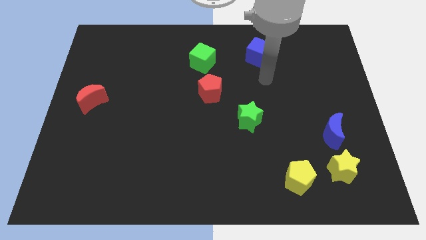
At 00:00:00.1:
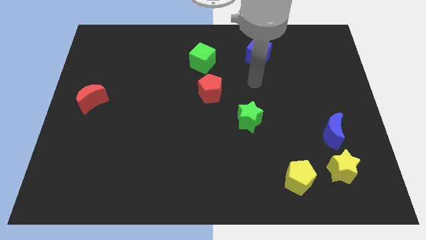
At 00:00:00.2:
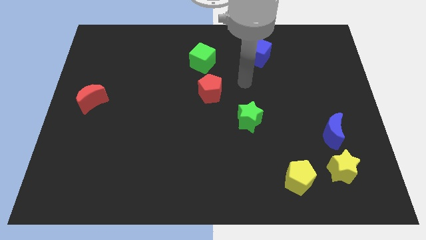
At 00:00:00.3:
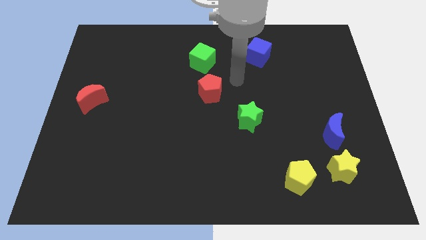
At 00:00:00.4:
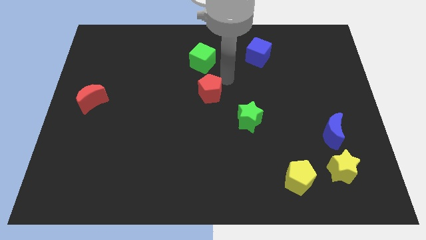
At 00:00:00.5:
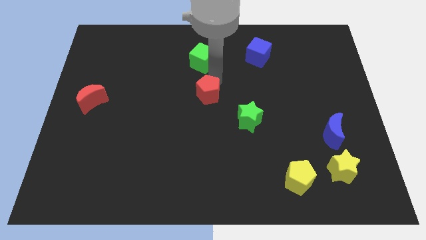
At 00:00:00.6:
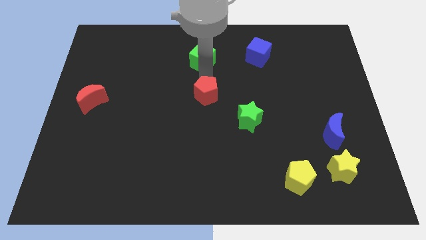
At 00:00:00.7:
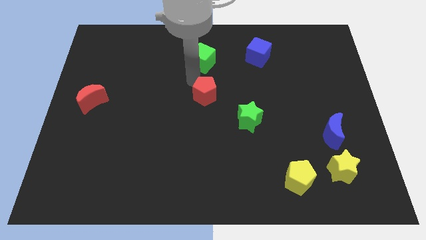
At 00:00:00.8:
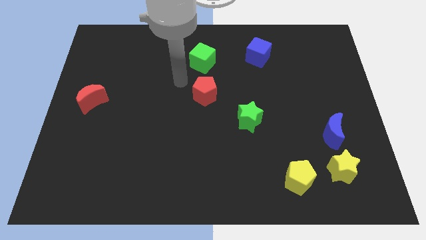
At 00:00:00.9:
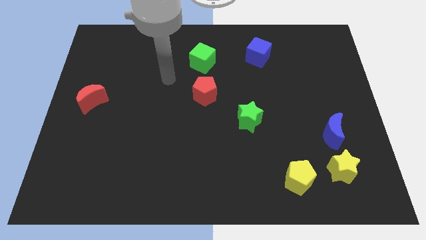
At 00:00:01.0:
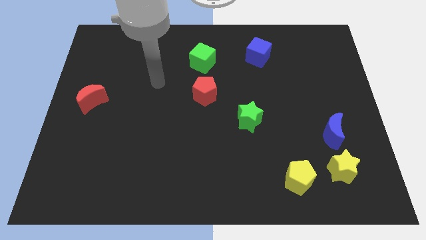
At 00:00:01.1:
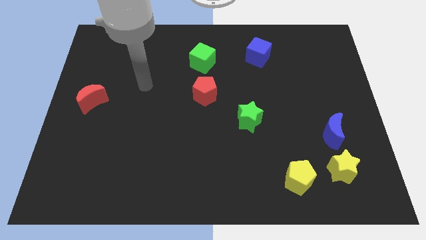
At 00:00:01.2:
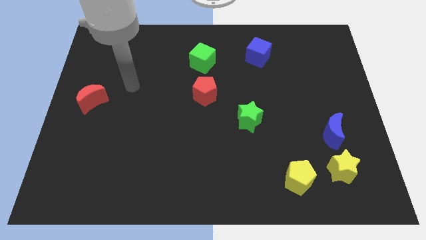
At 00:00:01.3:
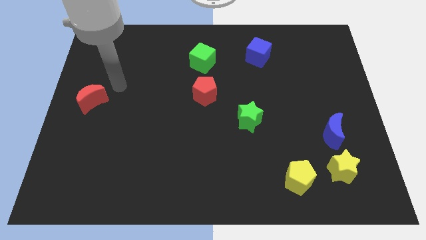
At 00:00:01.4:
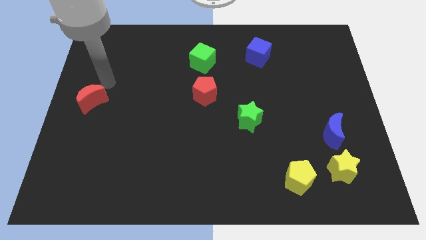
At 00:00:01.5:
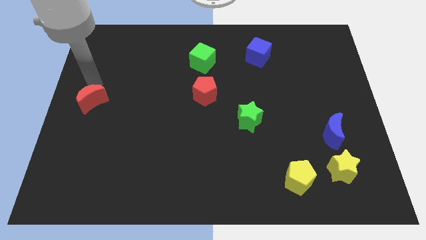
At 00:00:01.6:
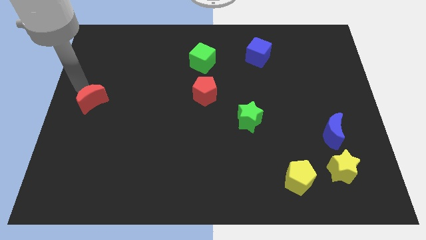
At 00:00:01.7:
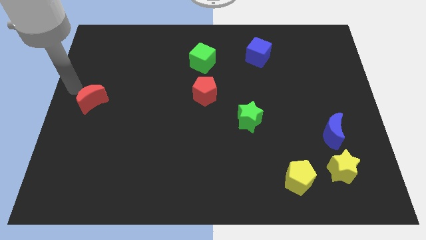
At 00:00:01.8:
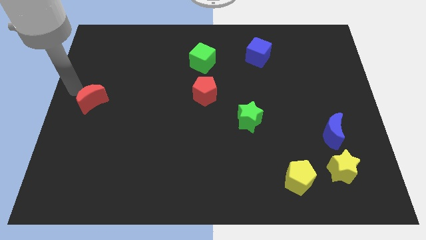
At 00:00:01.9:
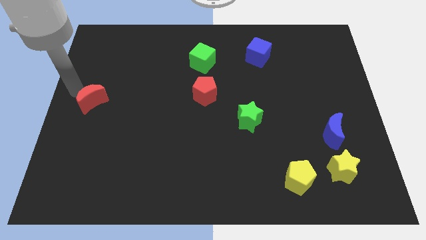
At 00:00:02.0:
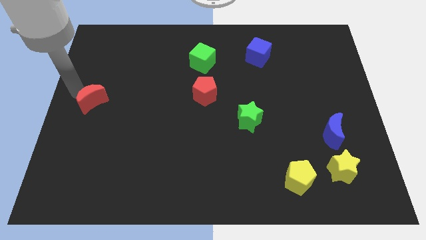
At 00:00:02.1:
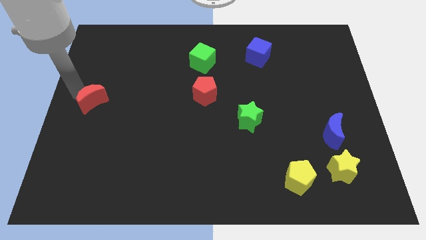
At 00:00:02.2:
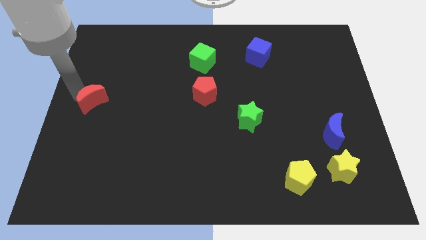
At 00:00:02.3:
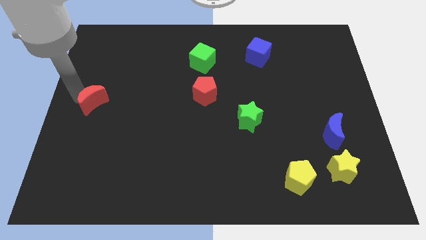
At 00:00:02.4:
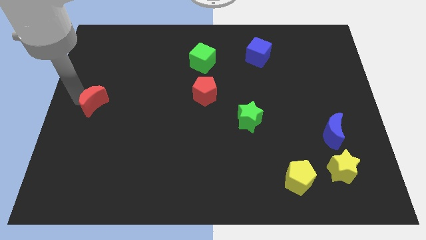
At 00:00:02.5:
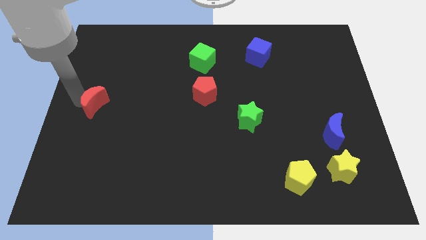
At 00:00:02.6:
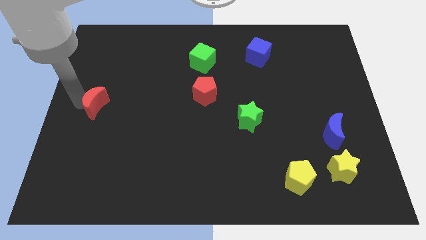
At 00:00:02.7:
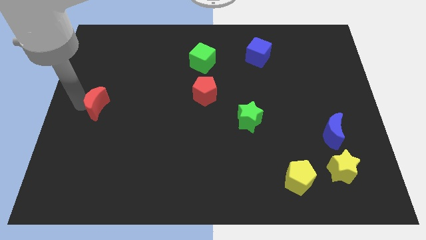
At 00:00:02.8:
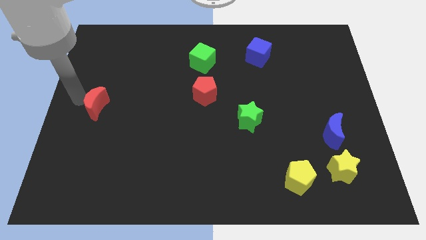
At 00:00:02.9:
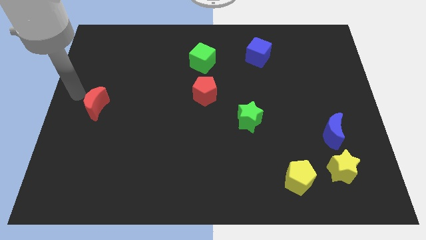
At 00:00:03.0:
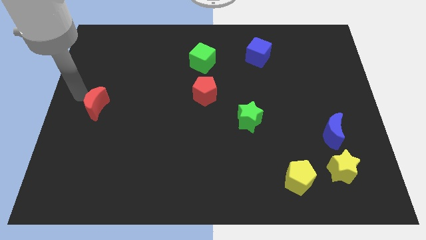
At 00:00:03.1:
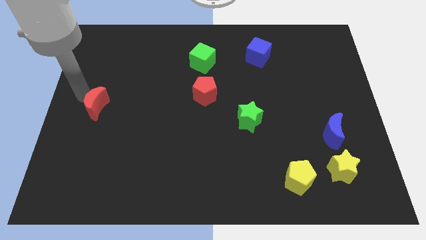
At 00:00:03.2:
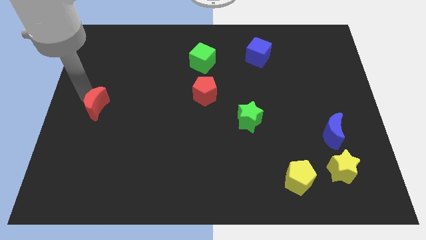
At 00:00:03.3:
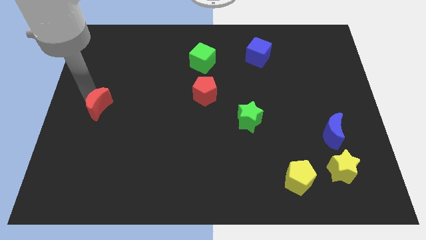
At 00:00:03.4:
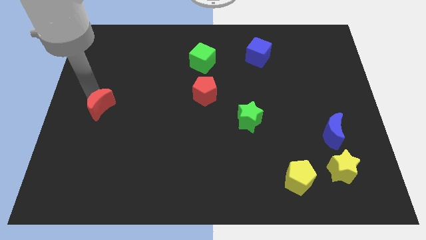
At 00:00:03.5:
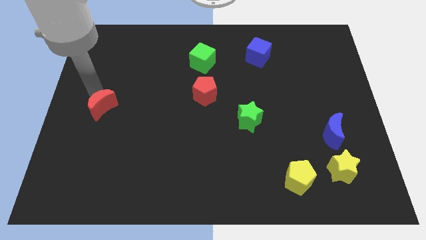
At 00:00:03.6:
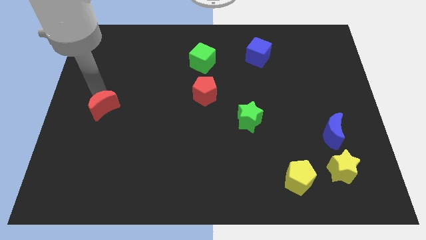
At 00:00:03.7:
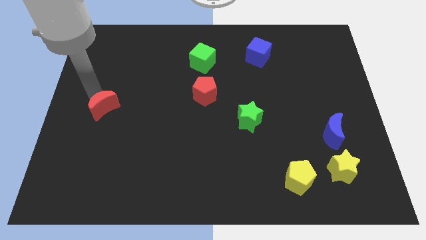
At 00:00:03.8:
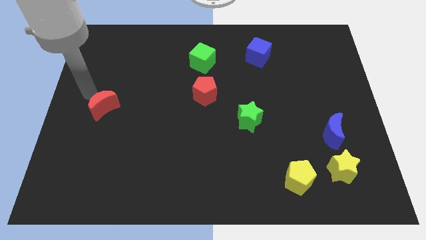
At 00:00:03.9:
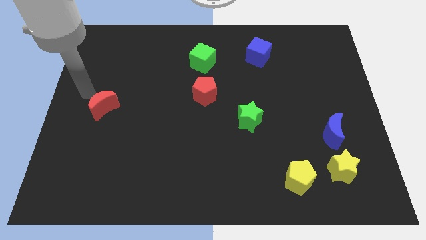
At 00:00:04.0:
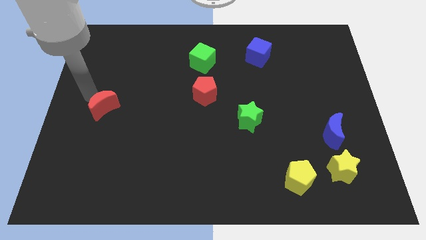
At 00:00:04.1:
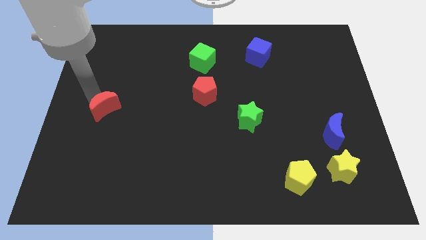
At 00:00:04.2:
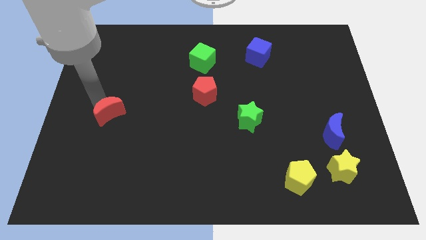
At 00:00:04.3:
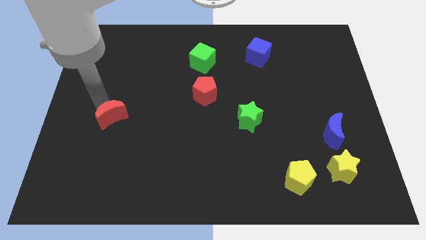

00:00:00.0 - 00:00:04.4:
slightly slide the red moon downwards and then to the right

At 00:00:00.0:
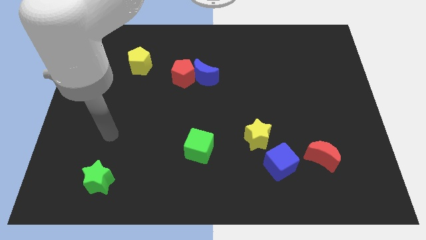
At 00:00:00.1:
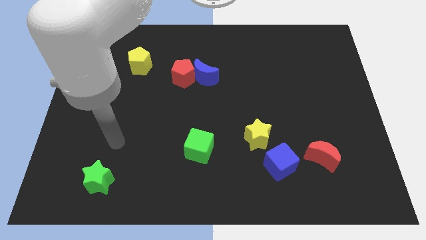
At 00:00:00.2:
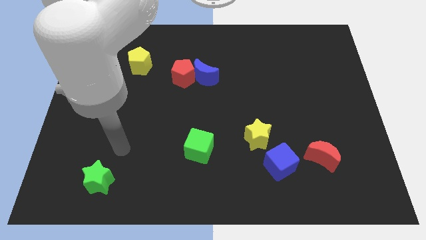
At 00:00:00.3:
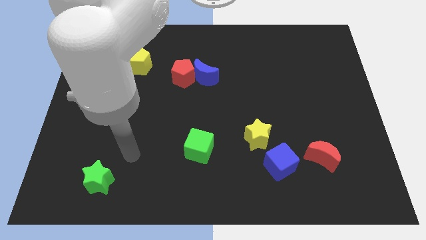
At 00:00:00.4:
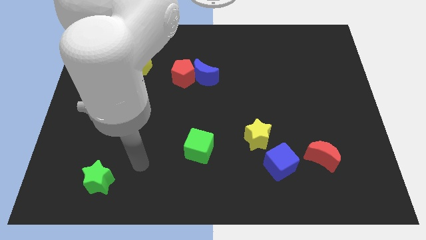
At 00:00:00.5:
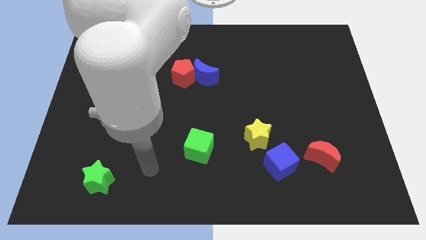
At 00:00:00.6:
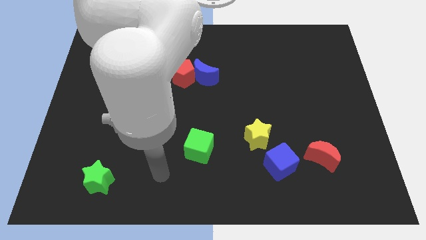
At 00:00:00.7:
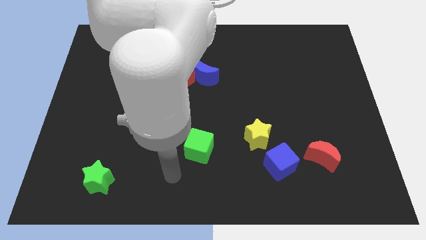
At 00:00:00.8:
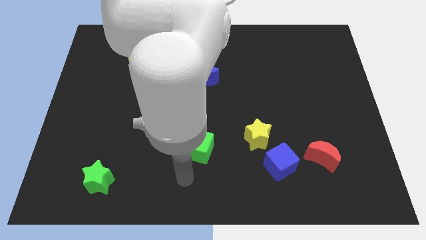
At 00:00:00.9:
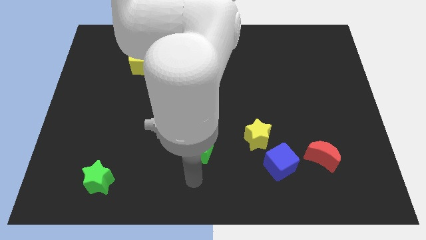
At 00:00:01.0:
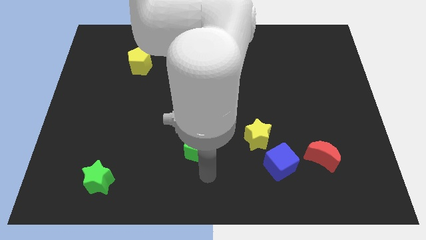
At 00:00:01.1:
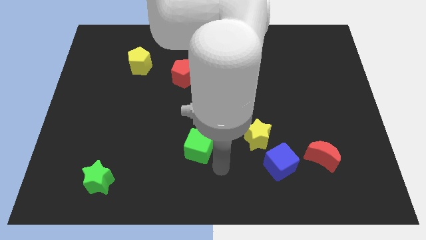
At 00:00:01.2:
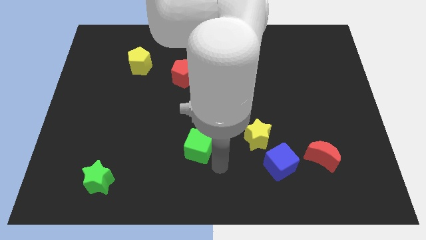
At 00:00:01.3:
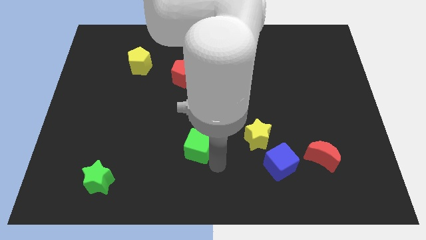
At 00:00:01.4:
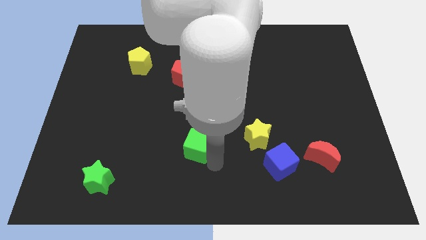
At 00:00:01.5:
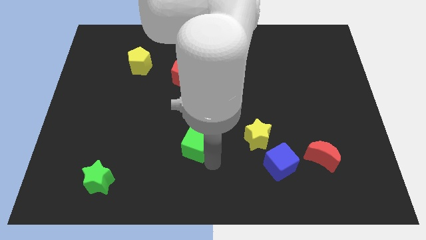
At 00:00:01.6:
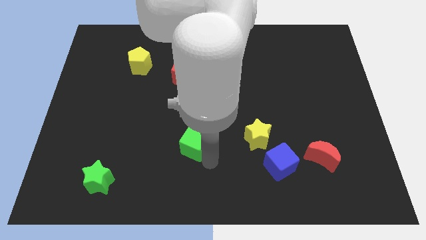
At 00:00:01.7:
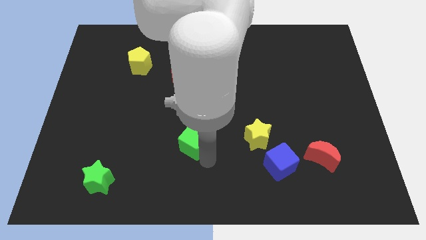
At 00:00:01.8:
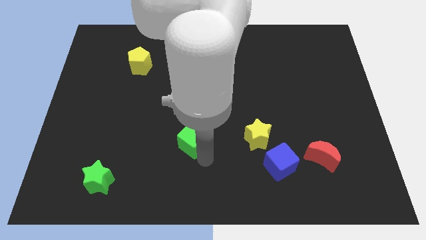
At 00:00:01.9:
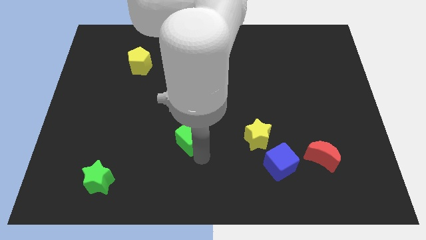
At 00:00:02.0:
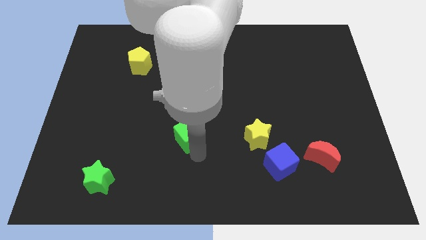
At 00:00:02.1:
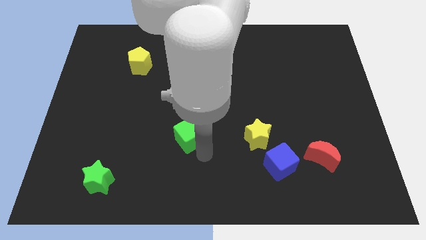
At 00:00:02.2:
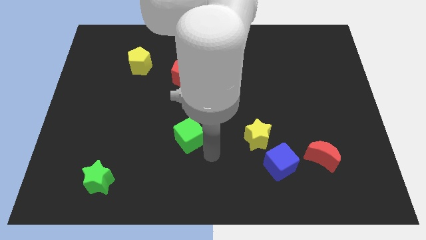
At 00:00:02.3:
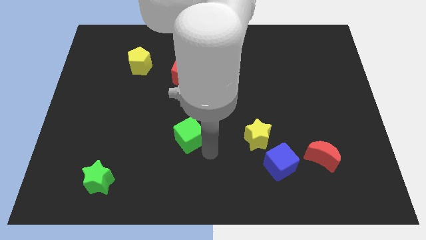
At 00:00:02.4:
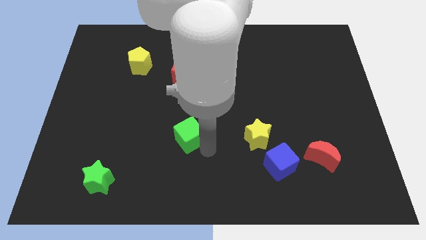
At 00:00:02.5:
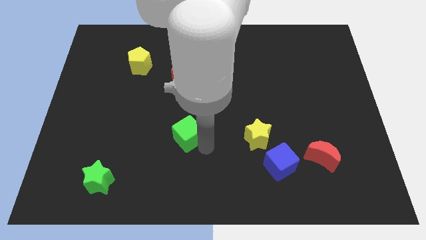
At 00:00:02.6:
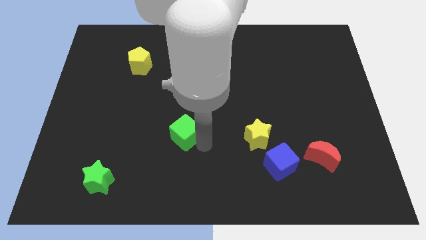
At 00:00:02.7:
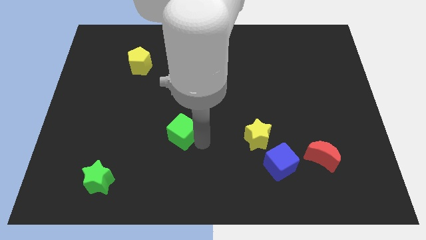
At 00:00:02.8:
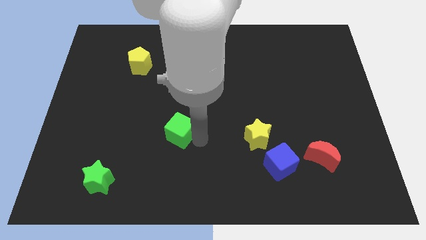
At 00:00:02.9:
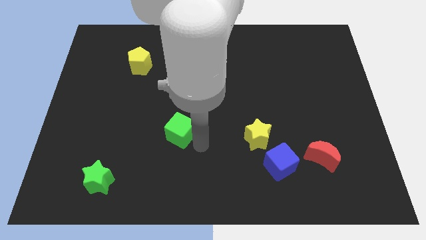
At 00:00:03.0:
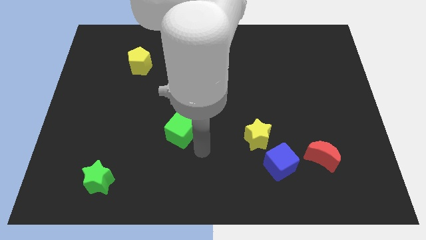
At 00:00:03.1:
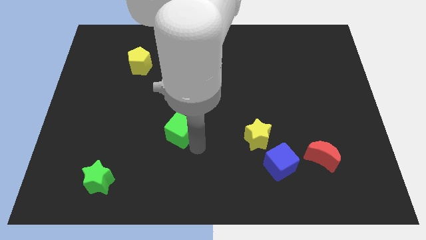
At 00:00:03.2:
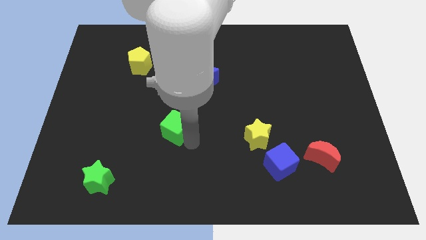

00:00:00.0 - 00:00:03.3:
slide the green cube a bit up and then left

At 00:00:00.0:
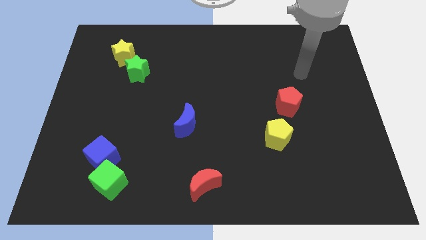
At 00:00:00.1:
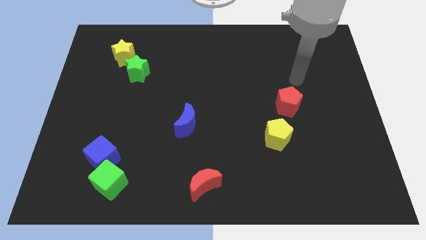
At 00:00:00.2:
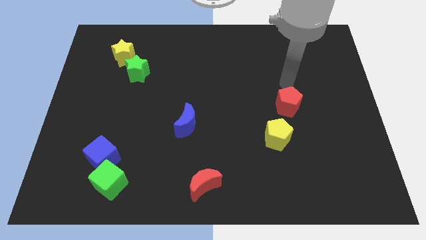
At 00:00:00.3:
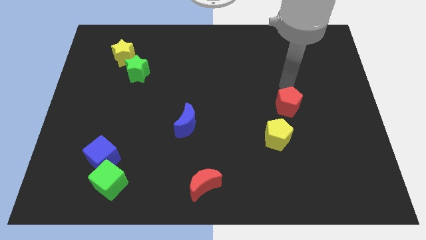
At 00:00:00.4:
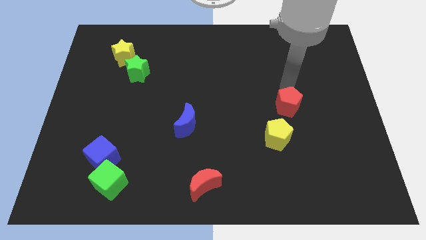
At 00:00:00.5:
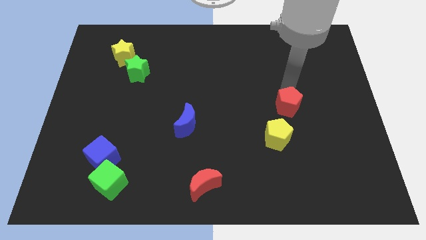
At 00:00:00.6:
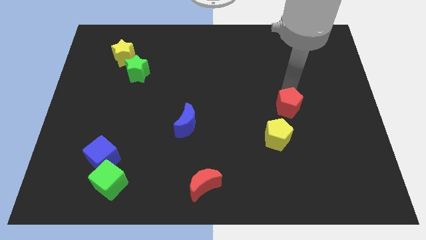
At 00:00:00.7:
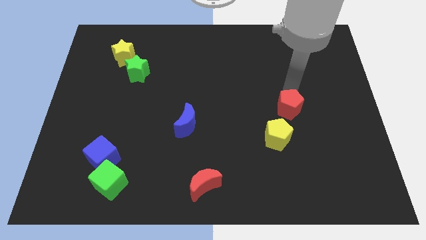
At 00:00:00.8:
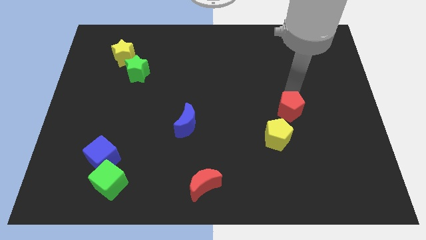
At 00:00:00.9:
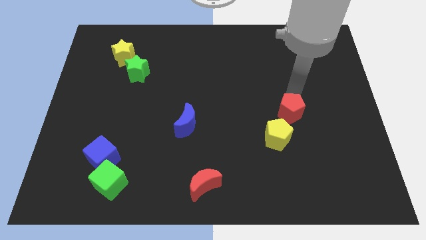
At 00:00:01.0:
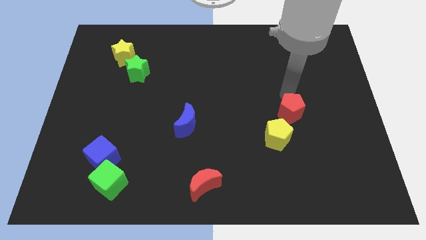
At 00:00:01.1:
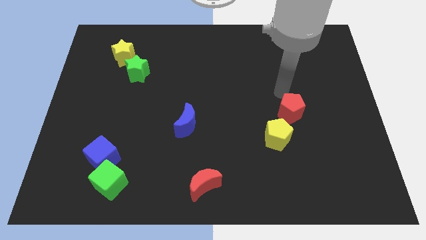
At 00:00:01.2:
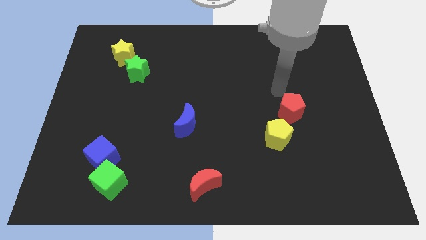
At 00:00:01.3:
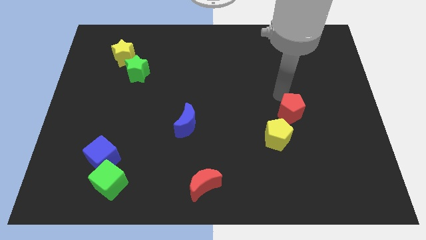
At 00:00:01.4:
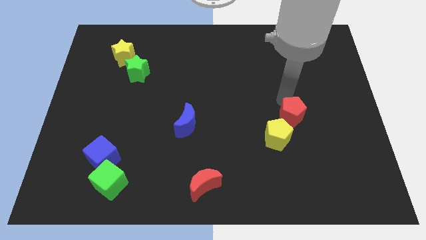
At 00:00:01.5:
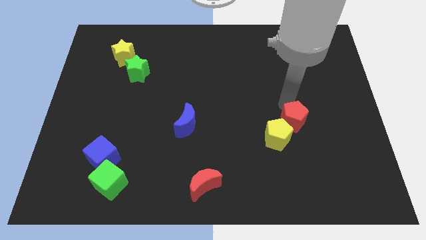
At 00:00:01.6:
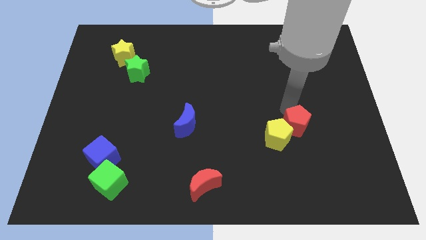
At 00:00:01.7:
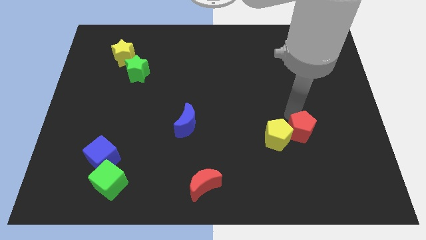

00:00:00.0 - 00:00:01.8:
move the red pentagon downwards a little
